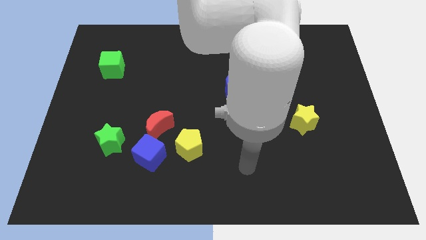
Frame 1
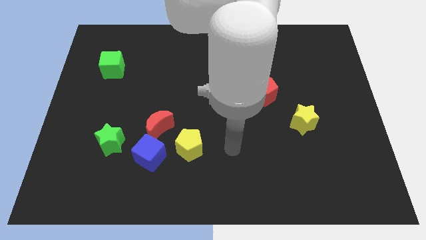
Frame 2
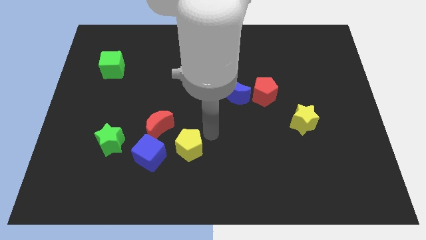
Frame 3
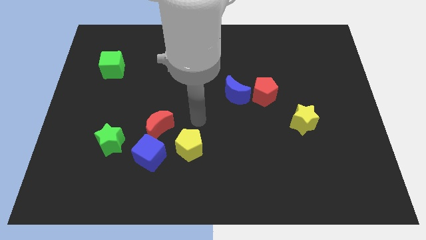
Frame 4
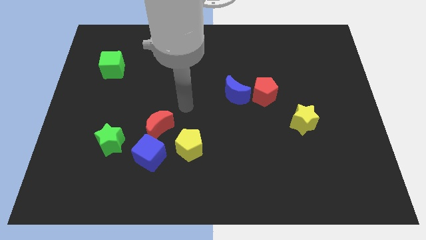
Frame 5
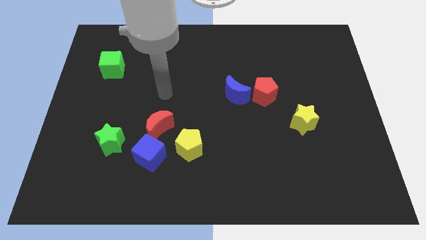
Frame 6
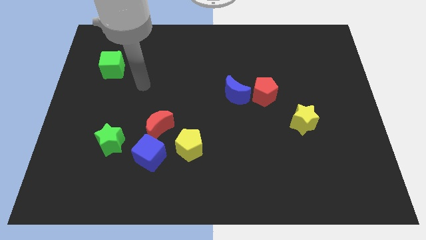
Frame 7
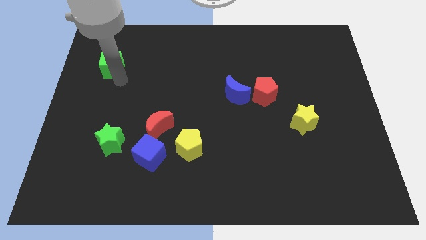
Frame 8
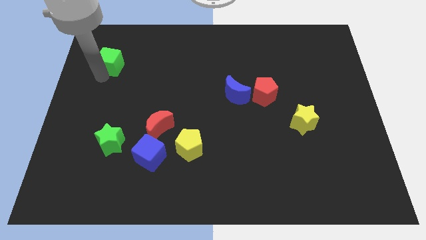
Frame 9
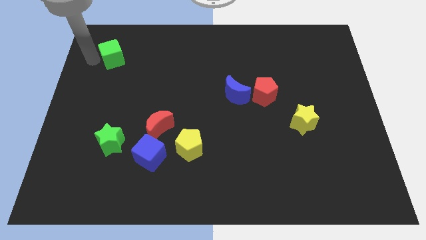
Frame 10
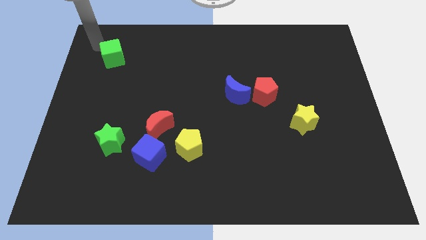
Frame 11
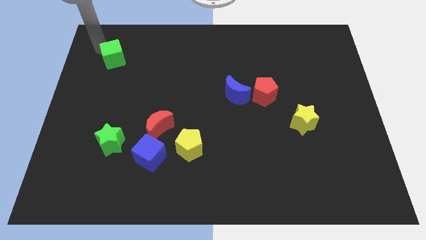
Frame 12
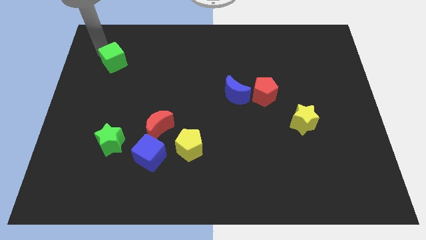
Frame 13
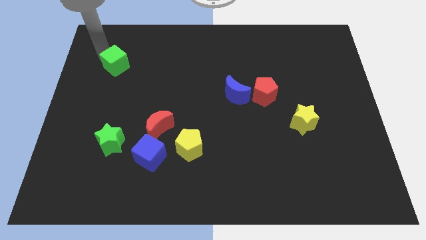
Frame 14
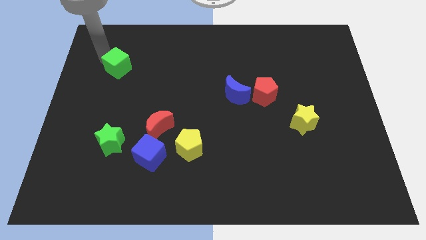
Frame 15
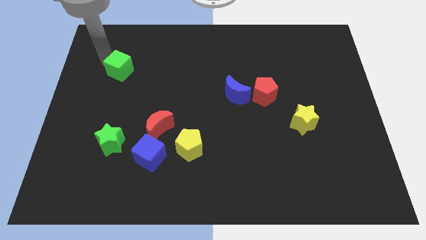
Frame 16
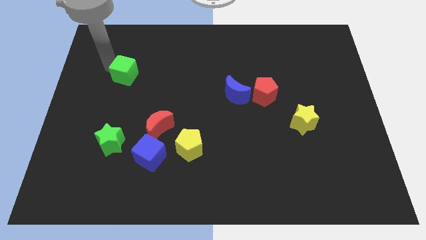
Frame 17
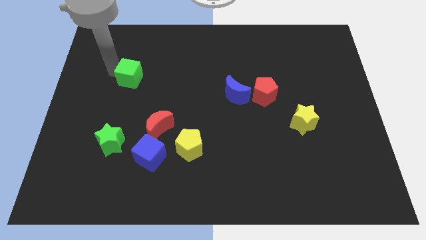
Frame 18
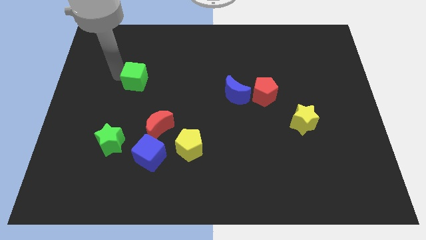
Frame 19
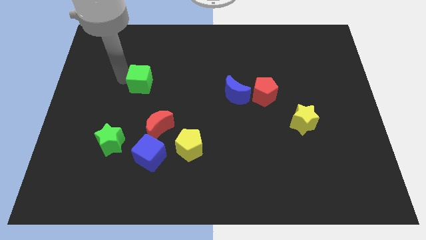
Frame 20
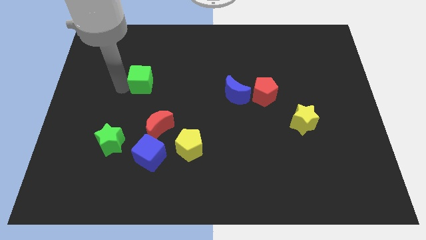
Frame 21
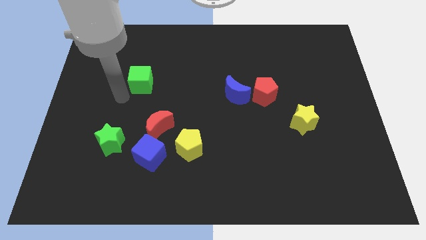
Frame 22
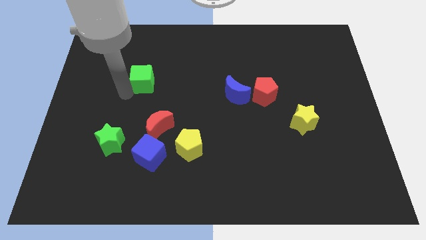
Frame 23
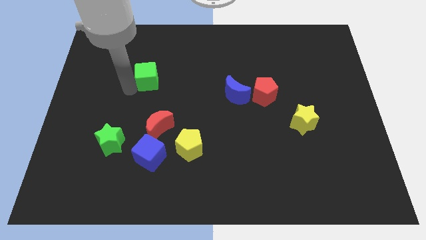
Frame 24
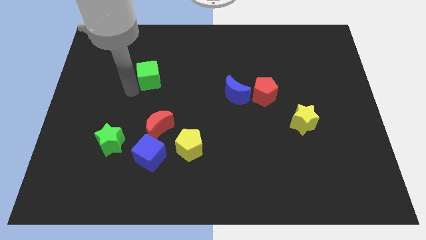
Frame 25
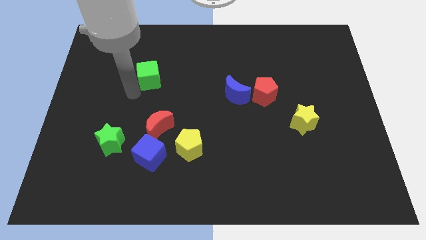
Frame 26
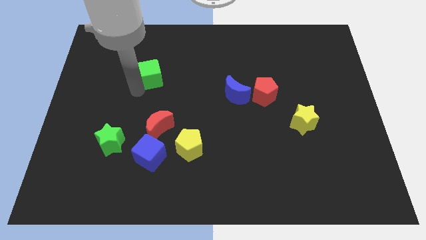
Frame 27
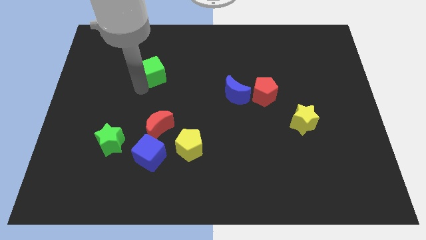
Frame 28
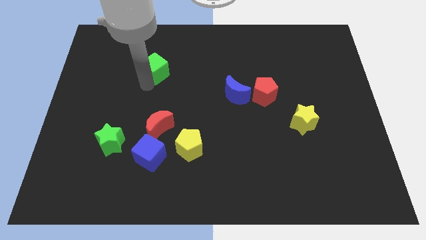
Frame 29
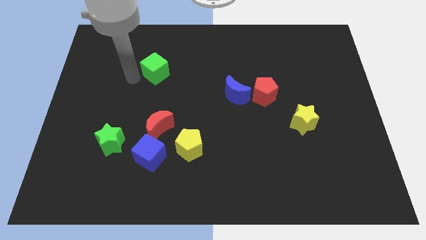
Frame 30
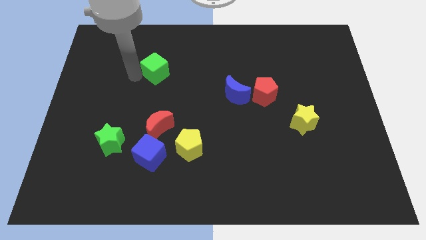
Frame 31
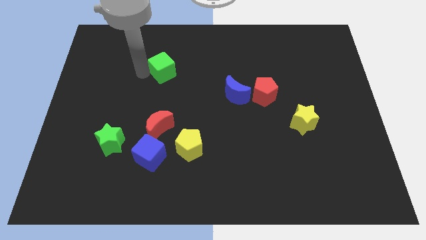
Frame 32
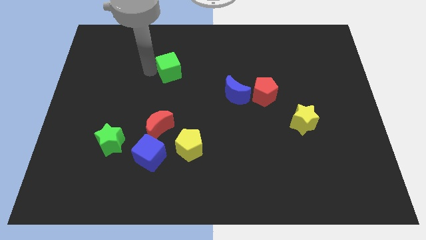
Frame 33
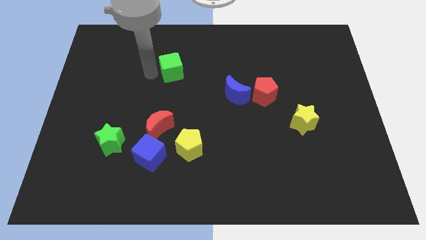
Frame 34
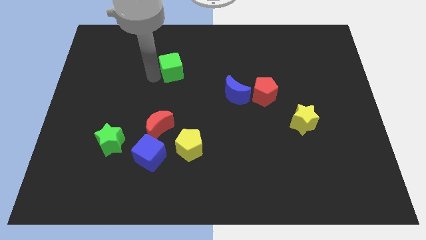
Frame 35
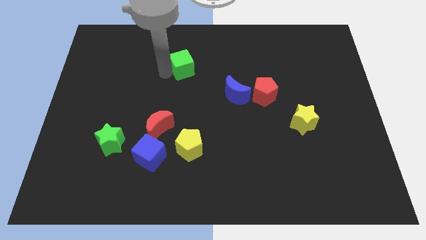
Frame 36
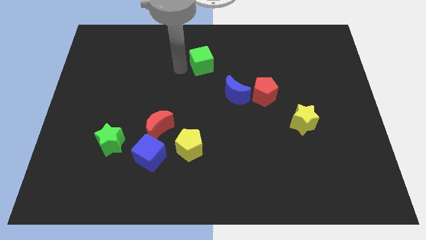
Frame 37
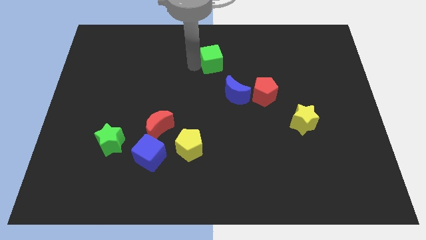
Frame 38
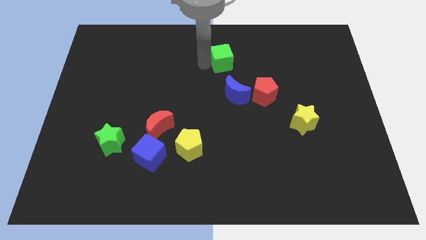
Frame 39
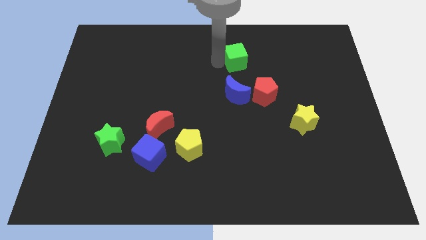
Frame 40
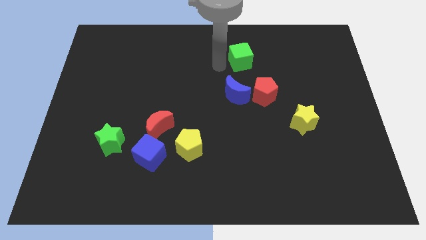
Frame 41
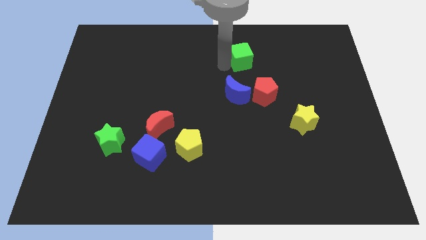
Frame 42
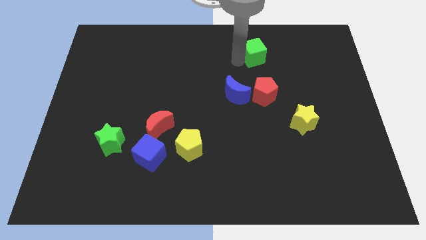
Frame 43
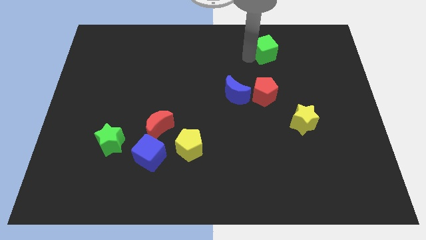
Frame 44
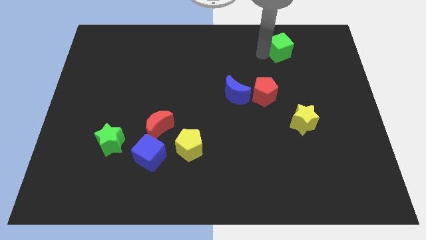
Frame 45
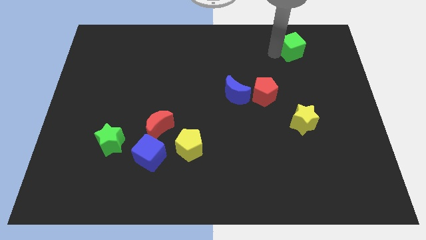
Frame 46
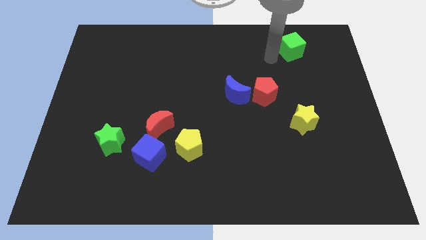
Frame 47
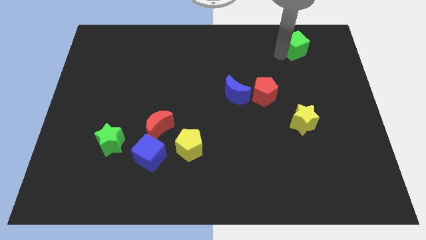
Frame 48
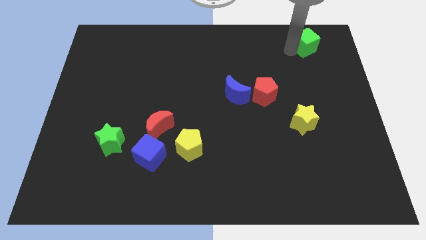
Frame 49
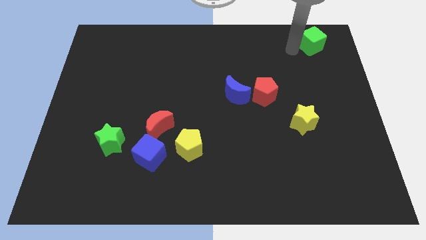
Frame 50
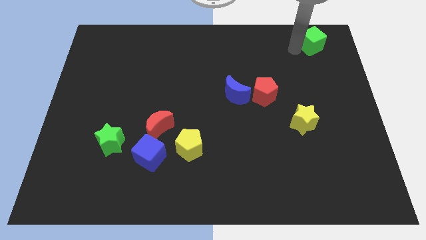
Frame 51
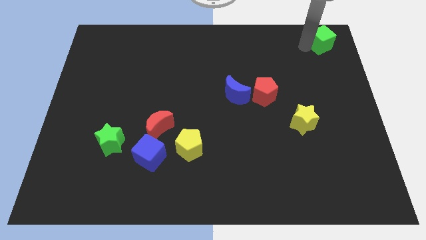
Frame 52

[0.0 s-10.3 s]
slide the green cube to the top right of the board

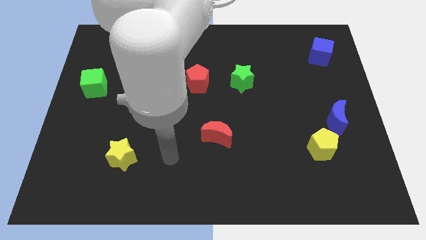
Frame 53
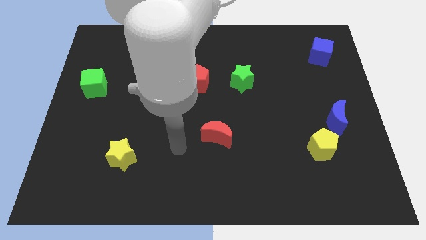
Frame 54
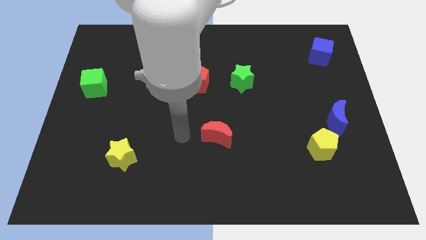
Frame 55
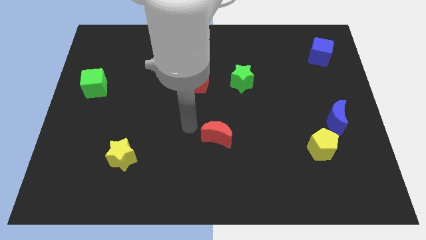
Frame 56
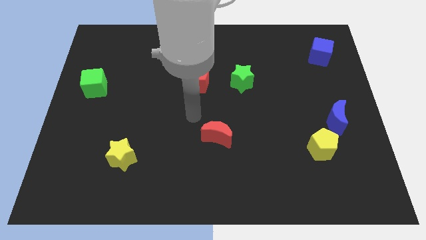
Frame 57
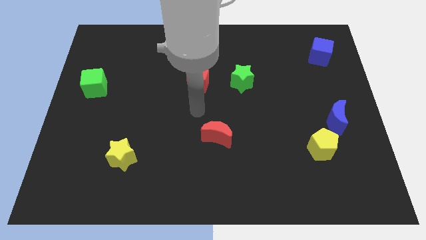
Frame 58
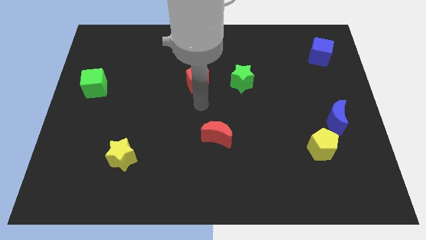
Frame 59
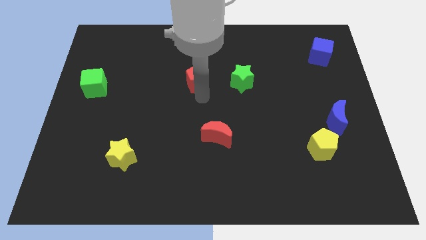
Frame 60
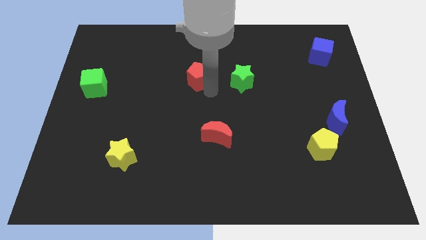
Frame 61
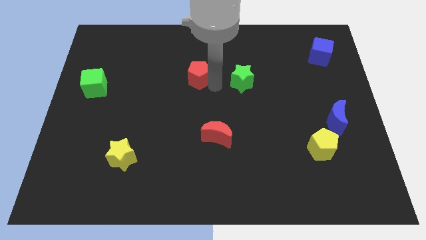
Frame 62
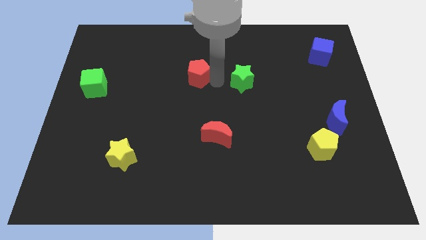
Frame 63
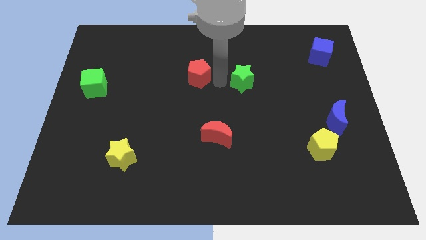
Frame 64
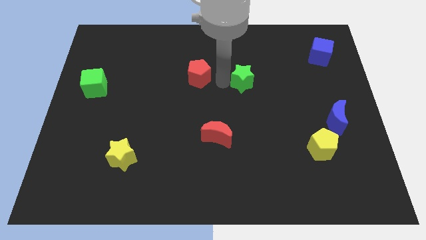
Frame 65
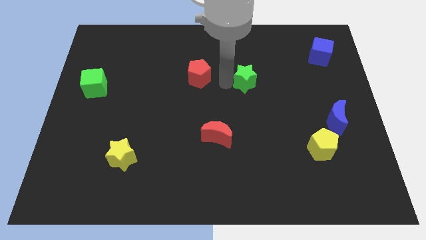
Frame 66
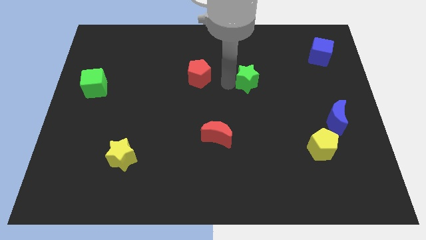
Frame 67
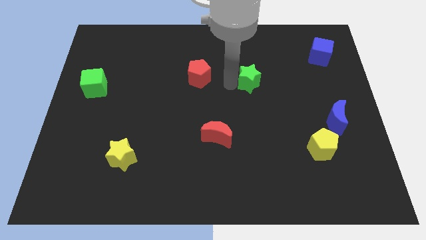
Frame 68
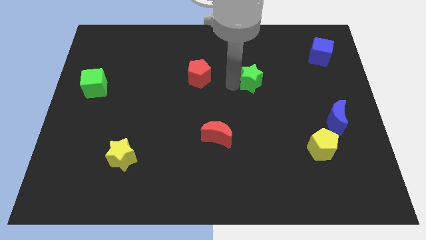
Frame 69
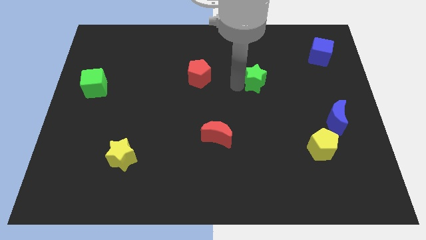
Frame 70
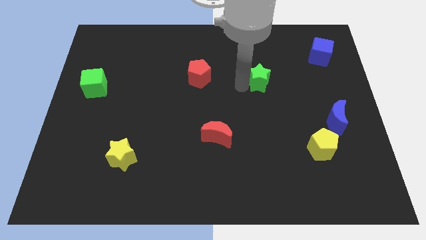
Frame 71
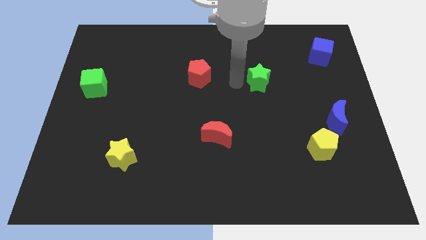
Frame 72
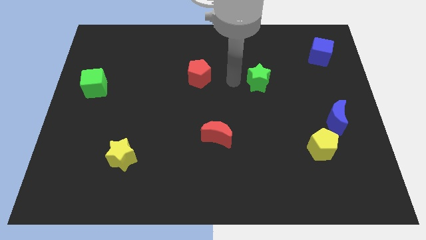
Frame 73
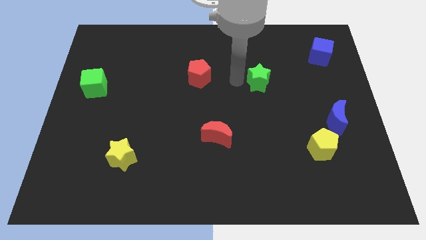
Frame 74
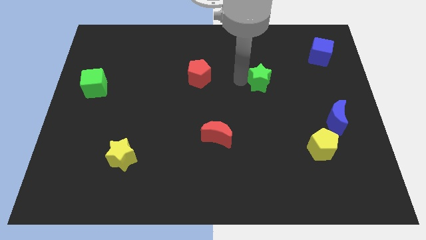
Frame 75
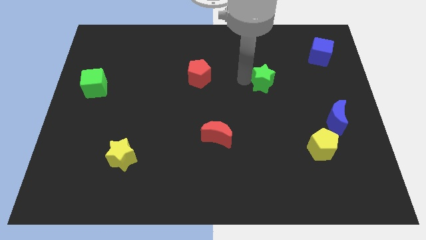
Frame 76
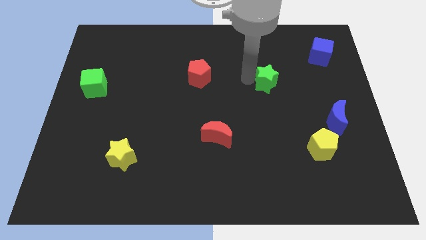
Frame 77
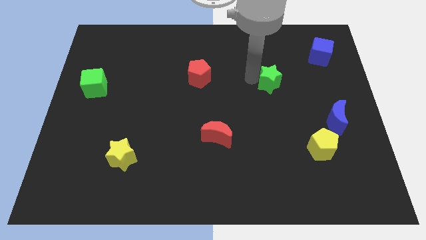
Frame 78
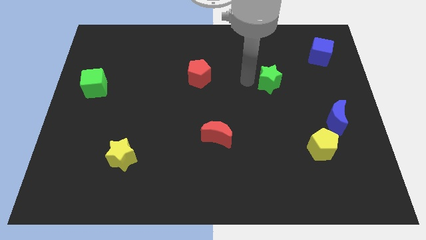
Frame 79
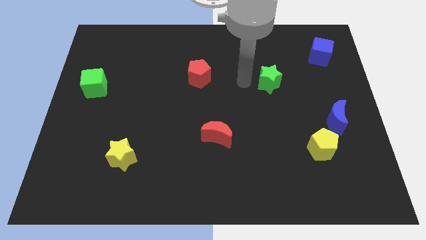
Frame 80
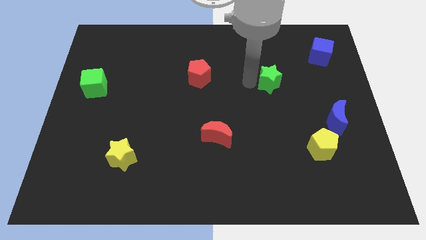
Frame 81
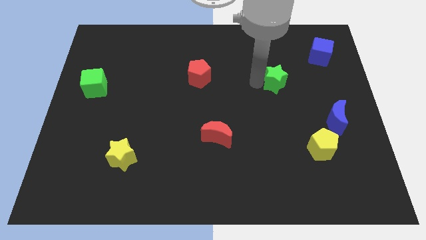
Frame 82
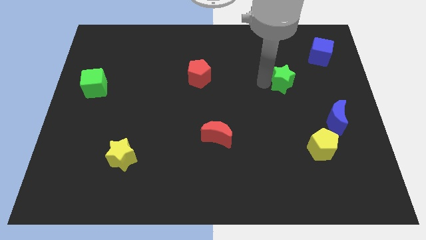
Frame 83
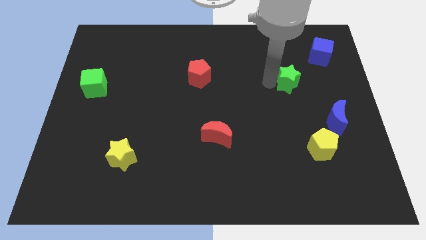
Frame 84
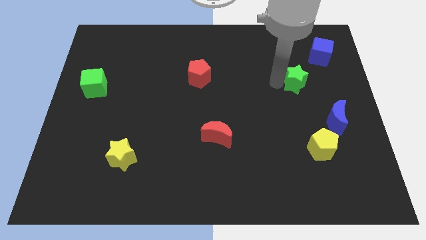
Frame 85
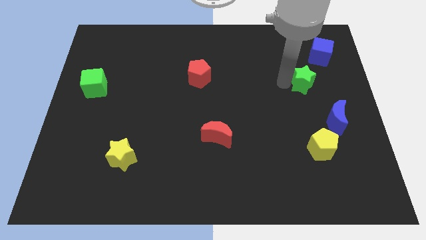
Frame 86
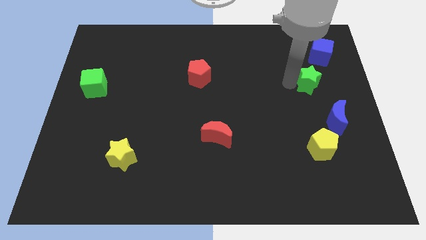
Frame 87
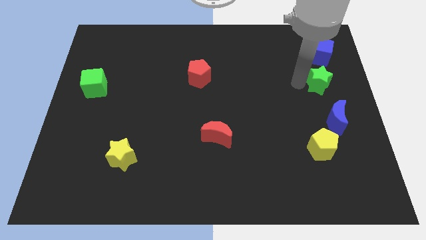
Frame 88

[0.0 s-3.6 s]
push the green star to the center right
